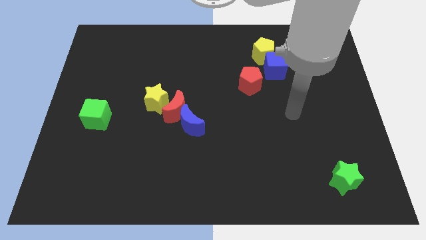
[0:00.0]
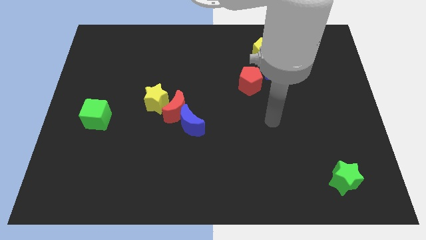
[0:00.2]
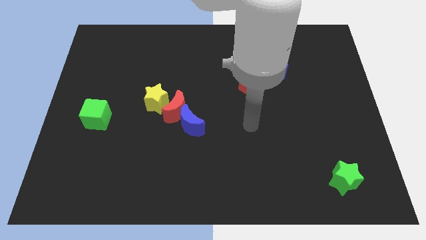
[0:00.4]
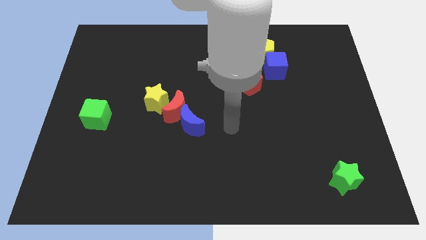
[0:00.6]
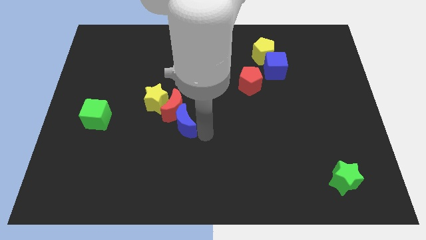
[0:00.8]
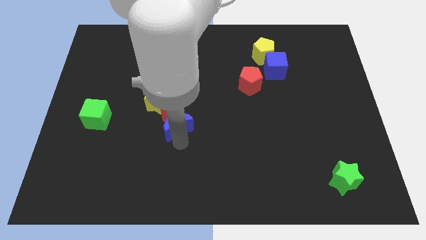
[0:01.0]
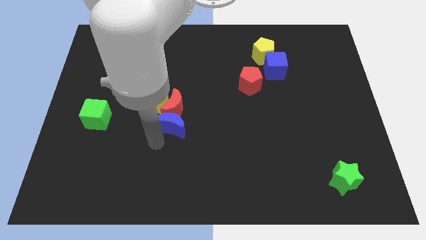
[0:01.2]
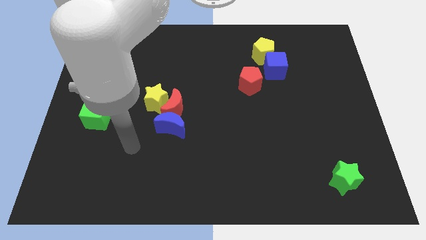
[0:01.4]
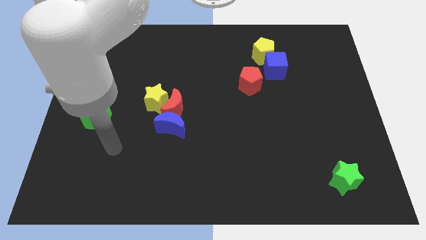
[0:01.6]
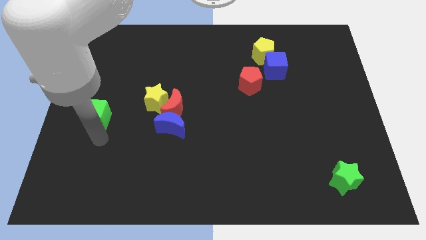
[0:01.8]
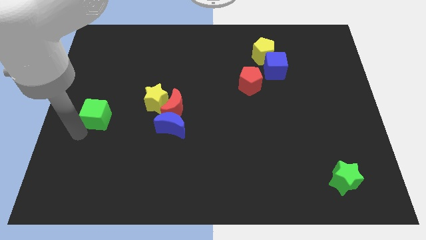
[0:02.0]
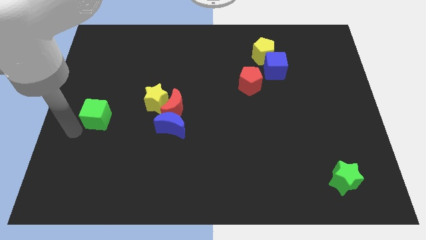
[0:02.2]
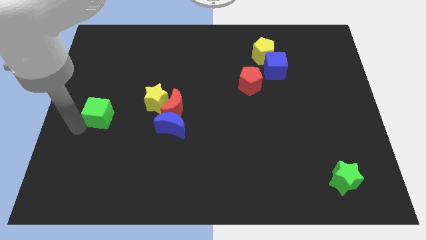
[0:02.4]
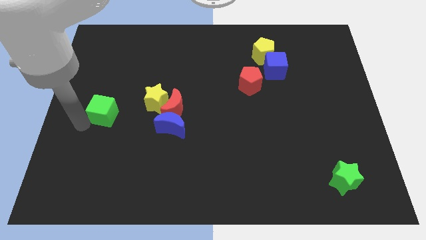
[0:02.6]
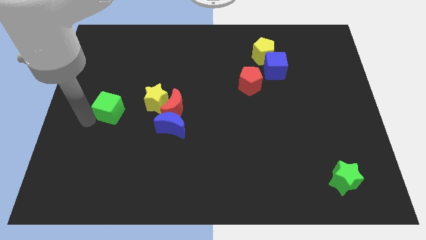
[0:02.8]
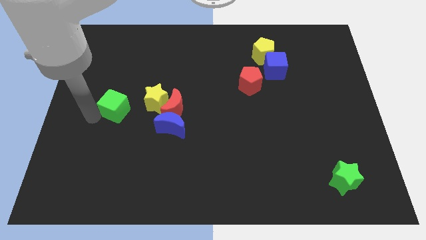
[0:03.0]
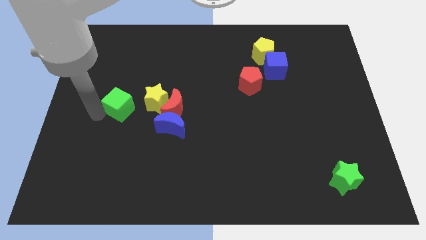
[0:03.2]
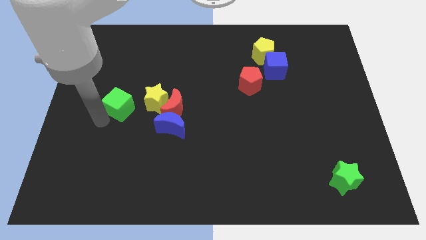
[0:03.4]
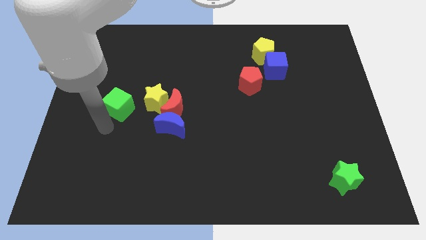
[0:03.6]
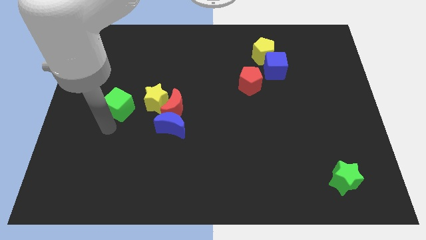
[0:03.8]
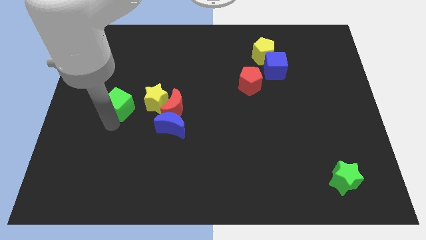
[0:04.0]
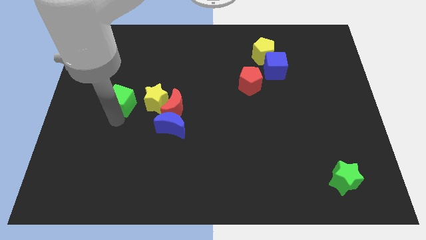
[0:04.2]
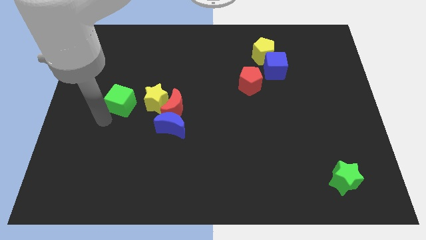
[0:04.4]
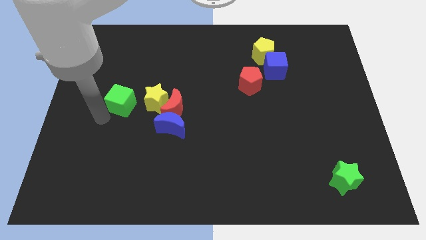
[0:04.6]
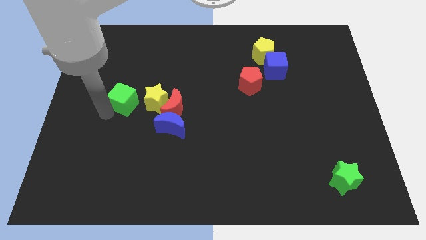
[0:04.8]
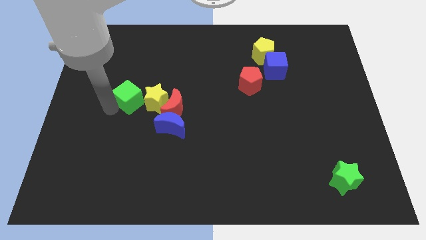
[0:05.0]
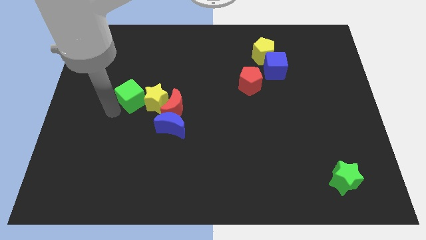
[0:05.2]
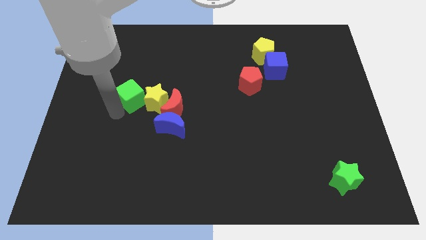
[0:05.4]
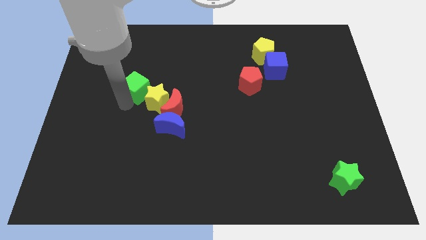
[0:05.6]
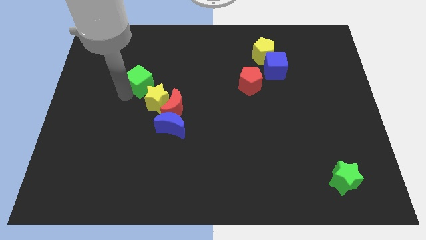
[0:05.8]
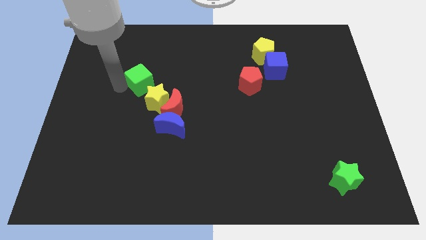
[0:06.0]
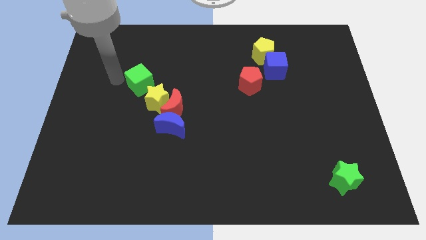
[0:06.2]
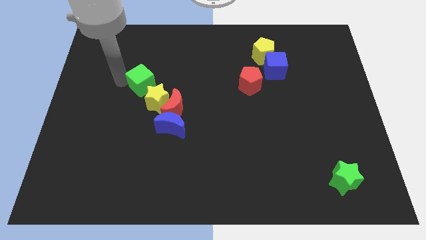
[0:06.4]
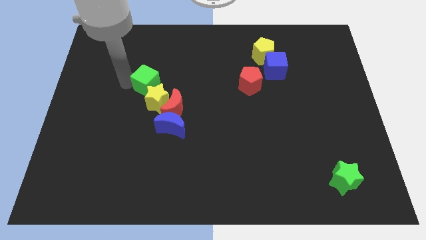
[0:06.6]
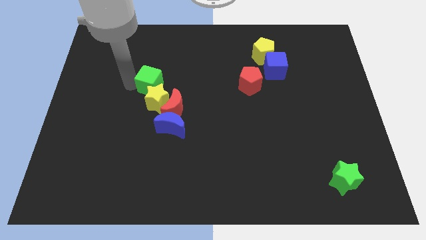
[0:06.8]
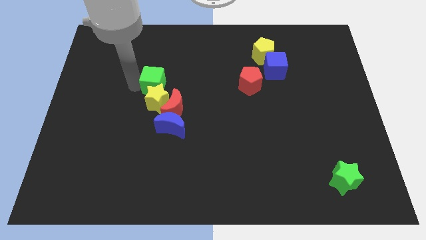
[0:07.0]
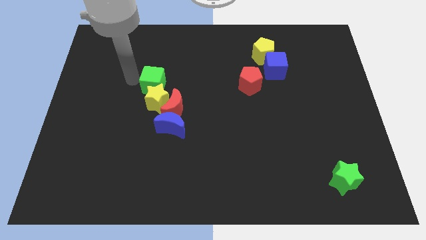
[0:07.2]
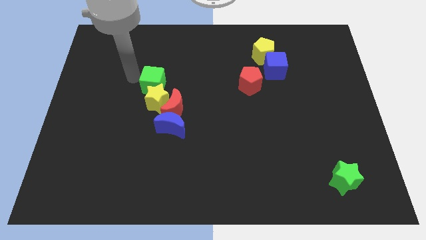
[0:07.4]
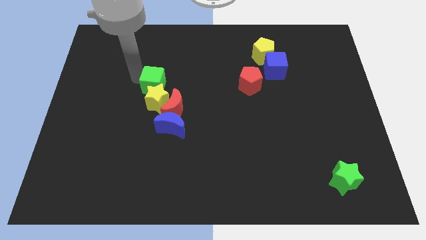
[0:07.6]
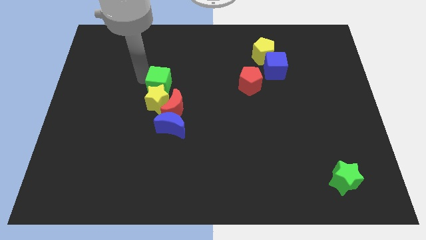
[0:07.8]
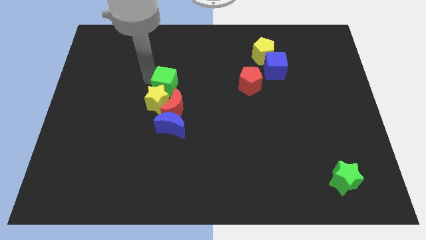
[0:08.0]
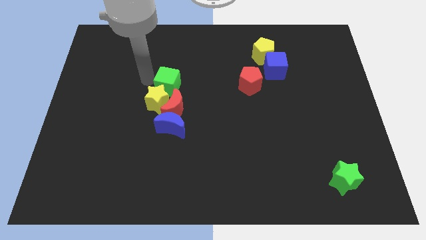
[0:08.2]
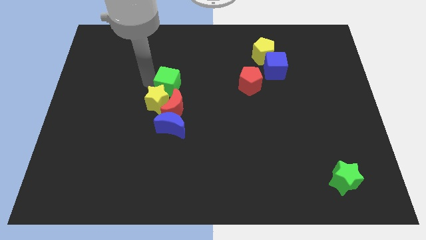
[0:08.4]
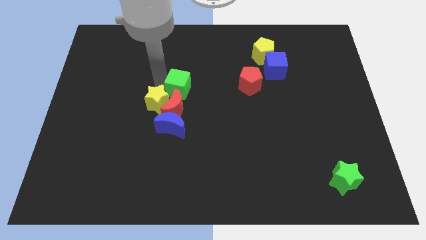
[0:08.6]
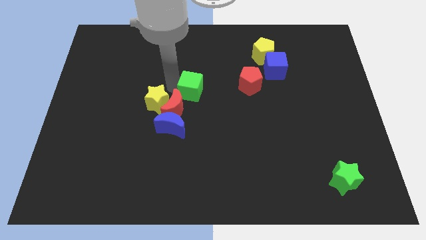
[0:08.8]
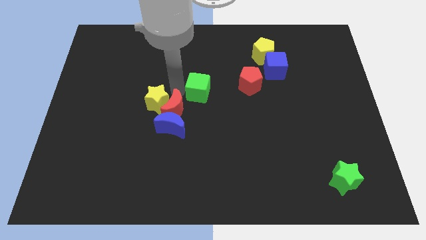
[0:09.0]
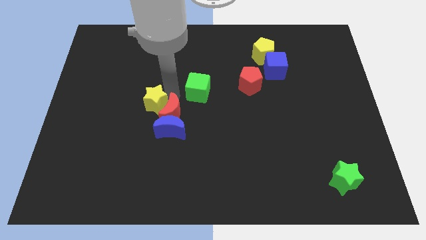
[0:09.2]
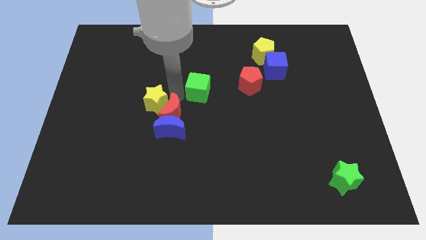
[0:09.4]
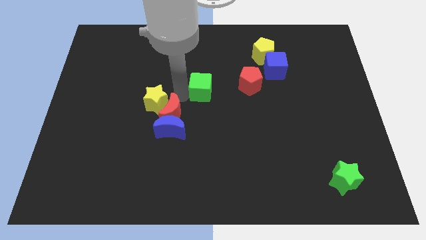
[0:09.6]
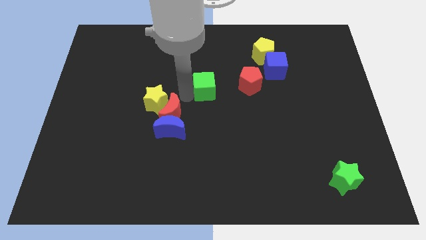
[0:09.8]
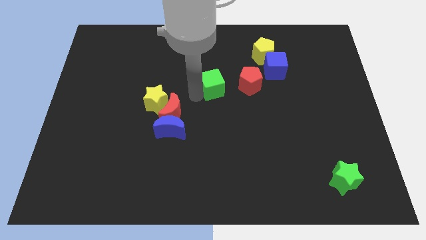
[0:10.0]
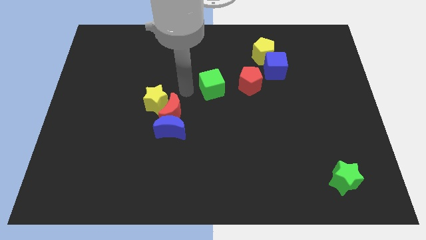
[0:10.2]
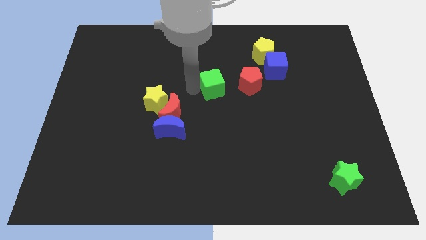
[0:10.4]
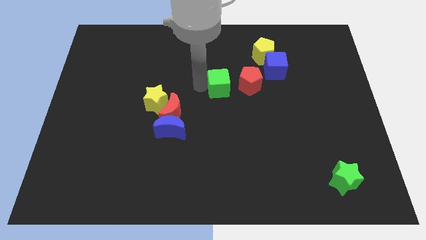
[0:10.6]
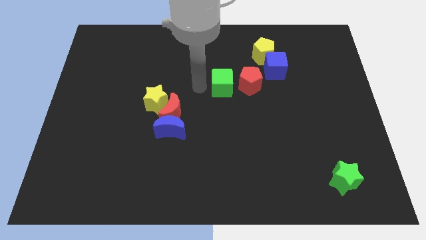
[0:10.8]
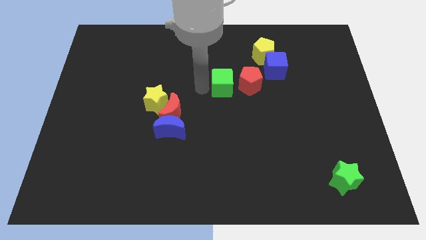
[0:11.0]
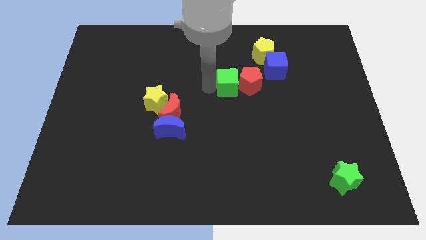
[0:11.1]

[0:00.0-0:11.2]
put the green cube to the red pentagon

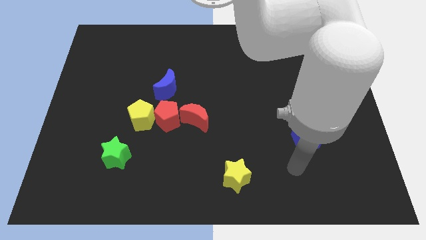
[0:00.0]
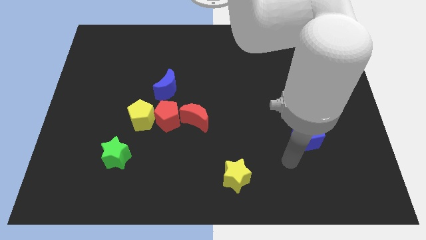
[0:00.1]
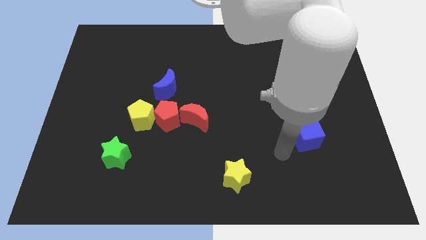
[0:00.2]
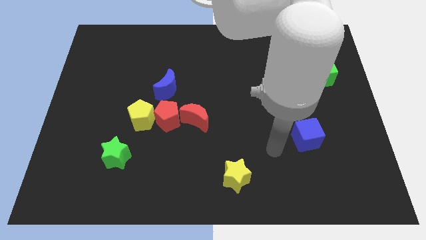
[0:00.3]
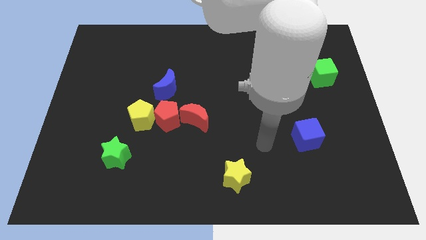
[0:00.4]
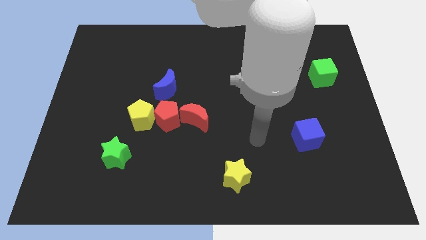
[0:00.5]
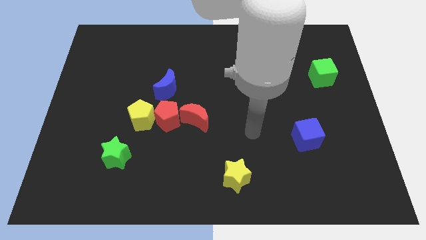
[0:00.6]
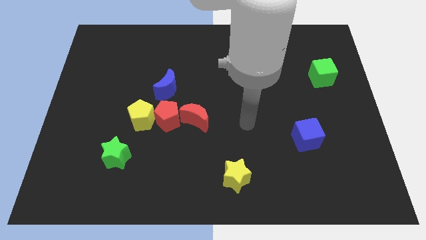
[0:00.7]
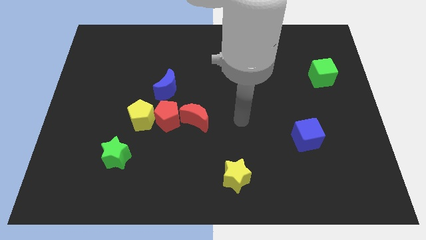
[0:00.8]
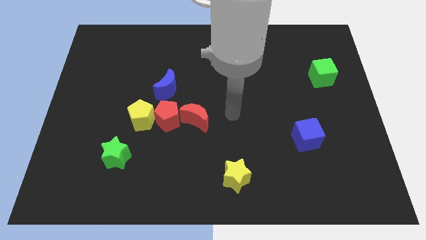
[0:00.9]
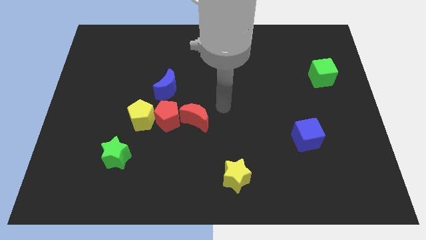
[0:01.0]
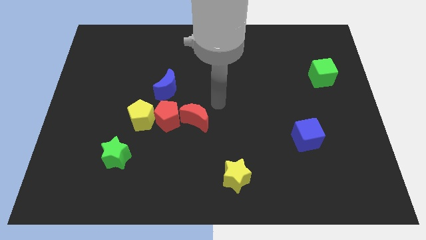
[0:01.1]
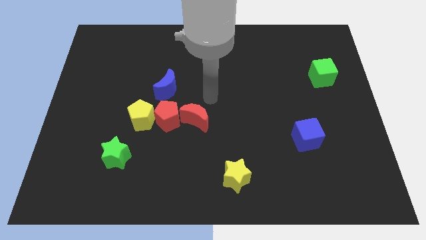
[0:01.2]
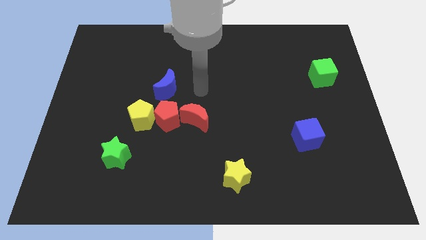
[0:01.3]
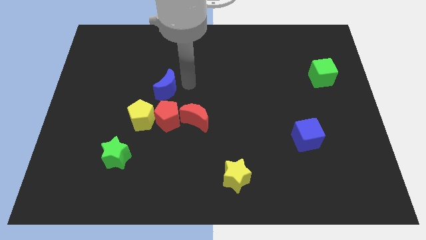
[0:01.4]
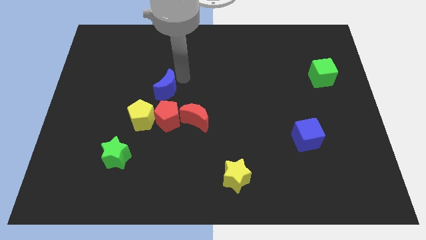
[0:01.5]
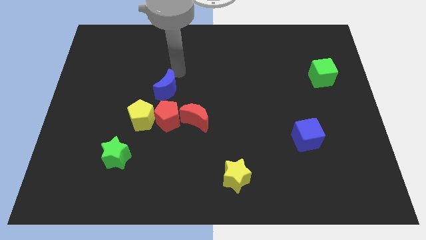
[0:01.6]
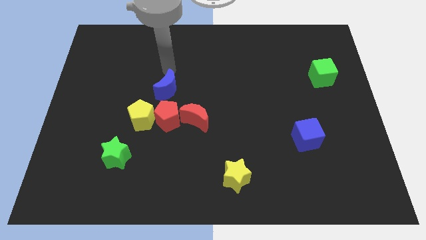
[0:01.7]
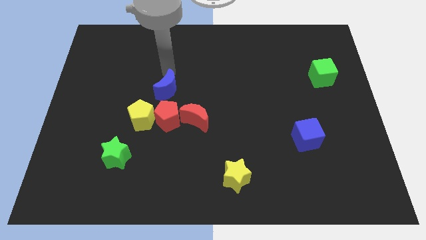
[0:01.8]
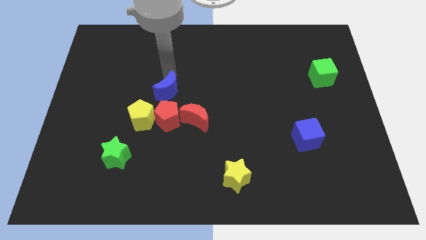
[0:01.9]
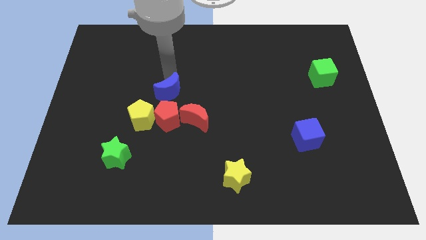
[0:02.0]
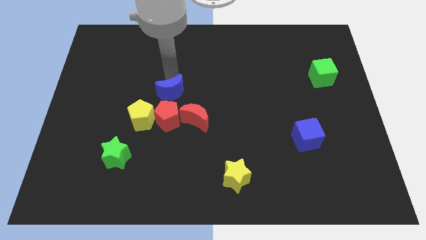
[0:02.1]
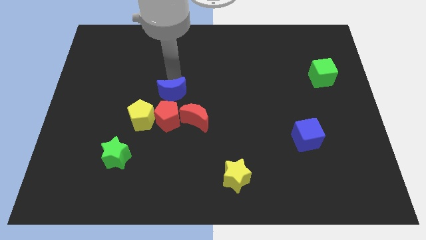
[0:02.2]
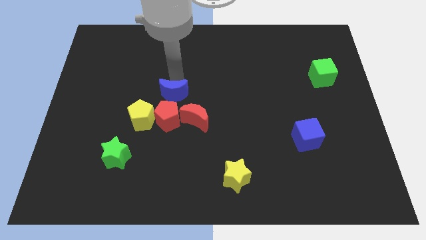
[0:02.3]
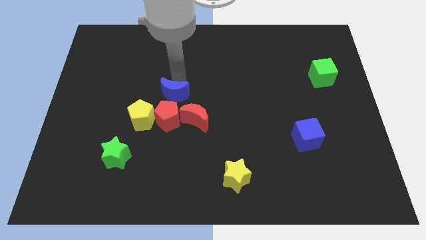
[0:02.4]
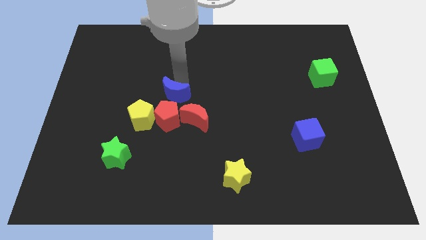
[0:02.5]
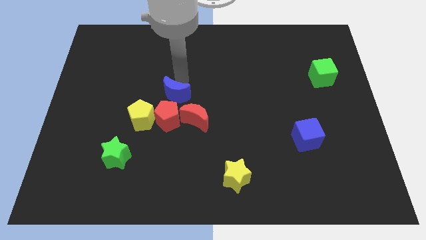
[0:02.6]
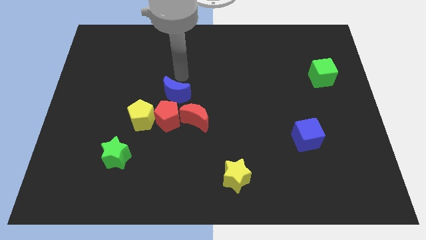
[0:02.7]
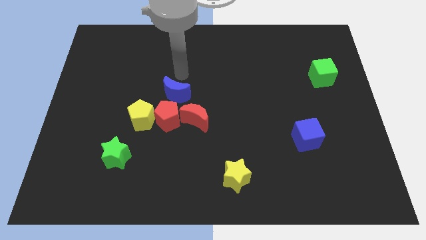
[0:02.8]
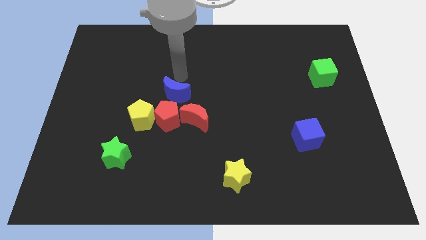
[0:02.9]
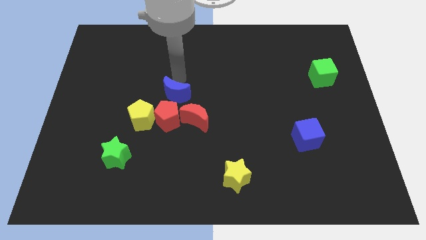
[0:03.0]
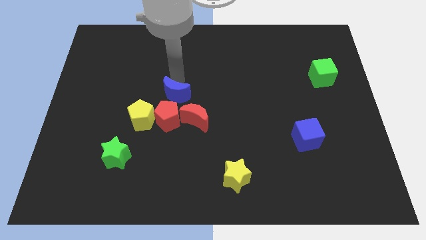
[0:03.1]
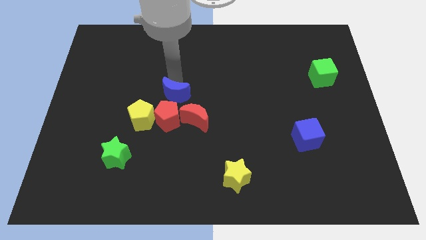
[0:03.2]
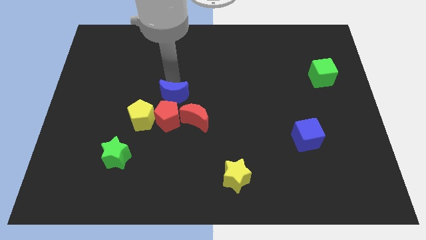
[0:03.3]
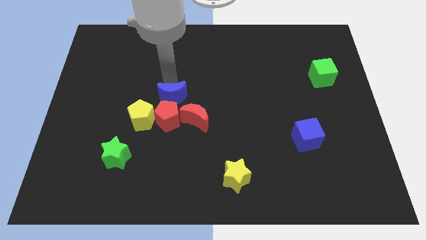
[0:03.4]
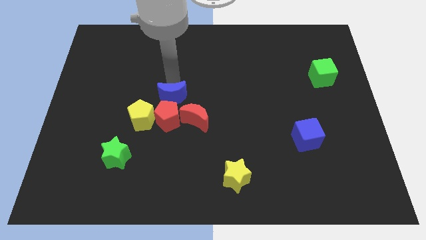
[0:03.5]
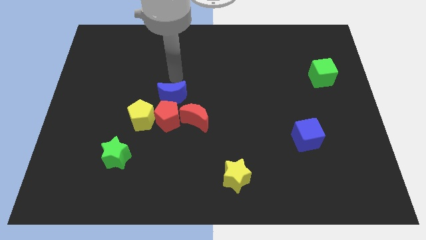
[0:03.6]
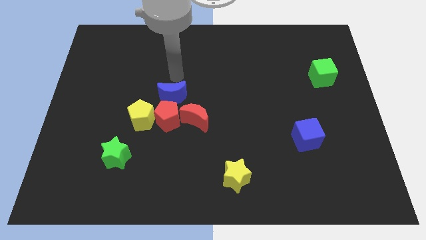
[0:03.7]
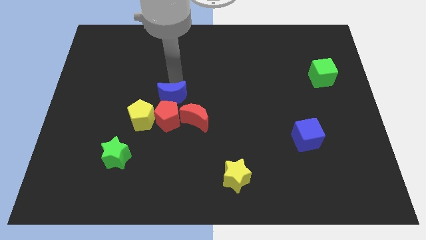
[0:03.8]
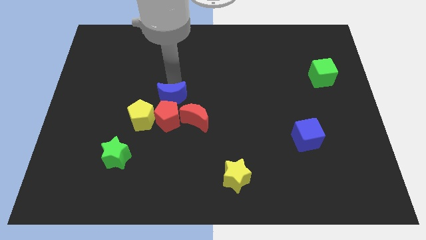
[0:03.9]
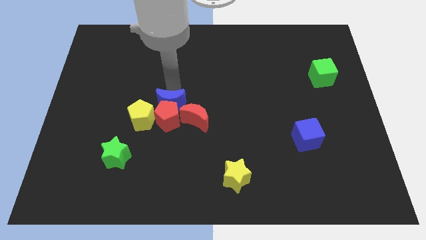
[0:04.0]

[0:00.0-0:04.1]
move the blue moon close to the red pentagon
